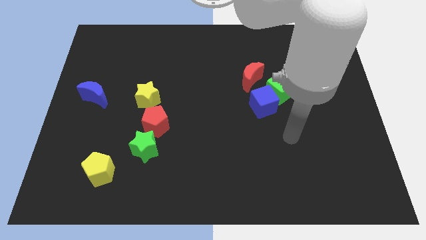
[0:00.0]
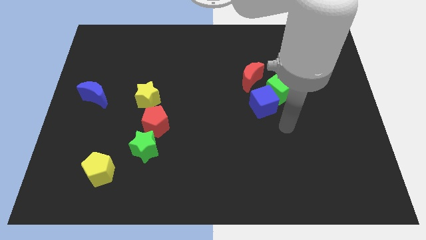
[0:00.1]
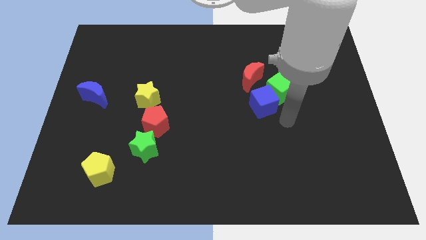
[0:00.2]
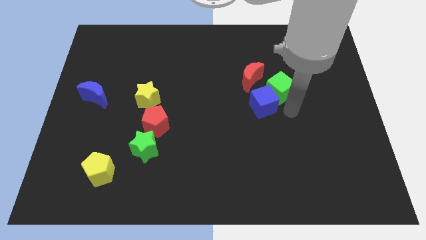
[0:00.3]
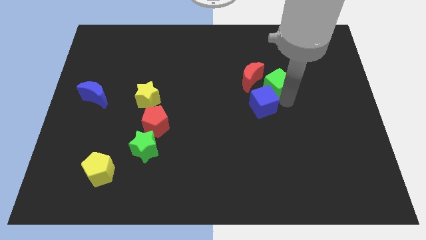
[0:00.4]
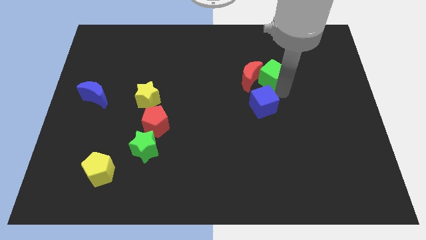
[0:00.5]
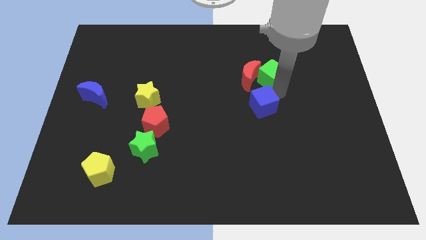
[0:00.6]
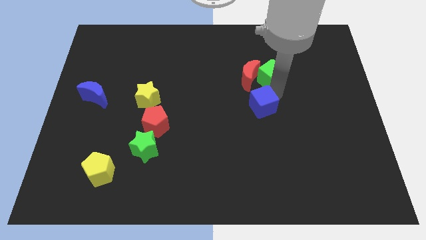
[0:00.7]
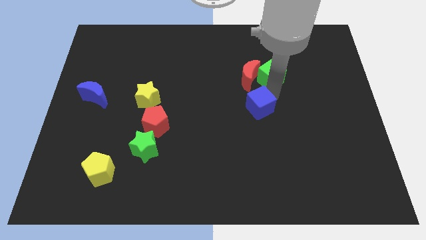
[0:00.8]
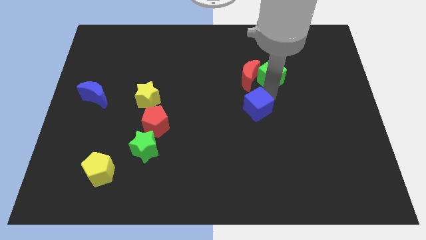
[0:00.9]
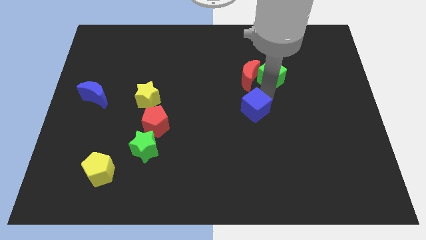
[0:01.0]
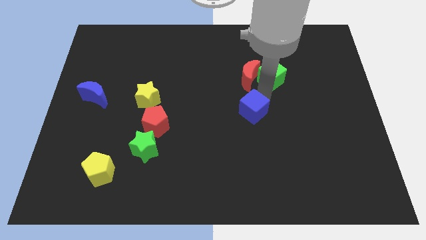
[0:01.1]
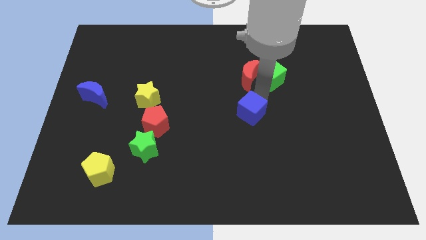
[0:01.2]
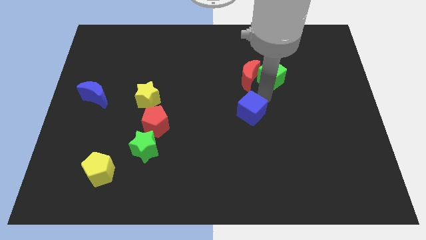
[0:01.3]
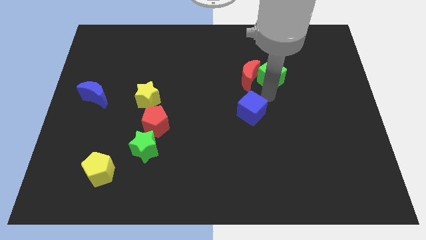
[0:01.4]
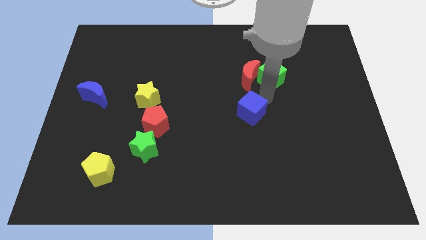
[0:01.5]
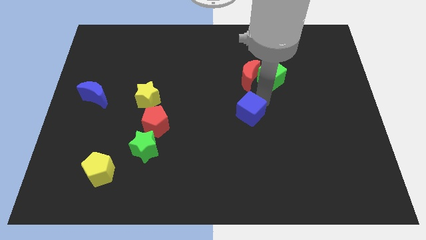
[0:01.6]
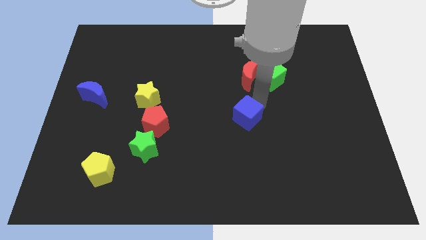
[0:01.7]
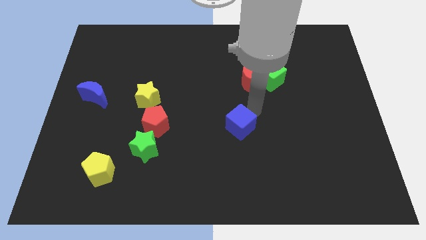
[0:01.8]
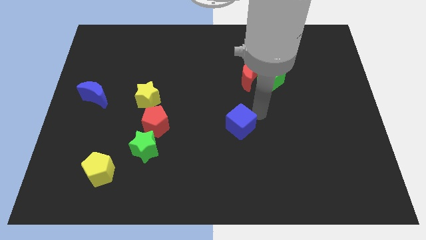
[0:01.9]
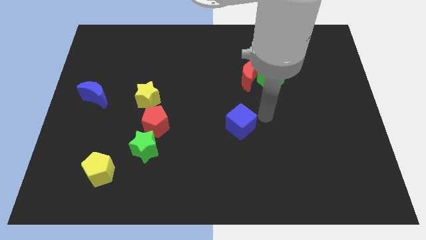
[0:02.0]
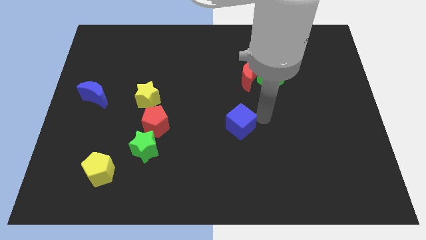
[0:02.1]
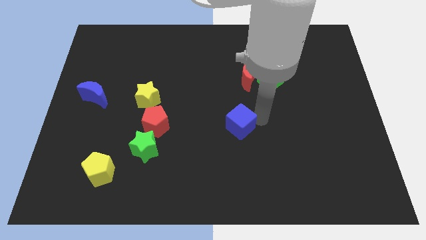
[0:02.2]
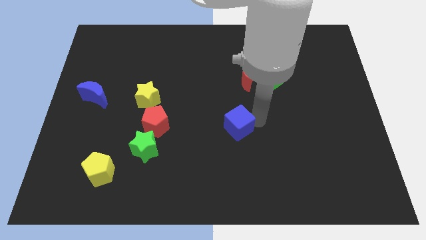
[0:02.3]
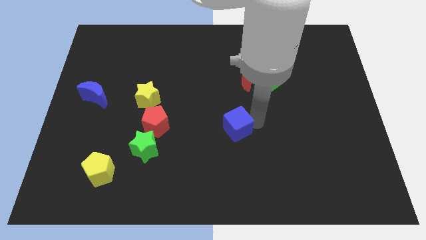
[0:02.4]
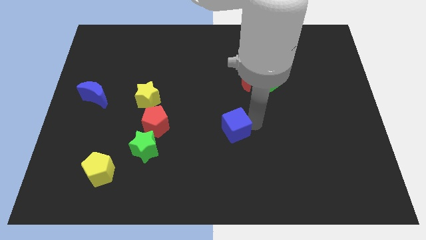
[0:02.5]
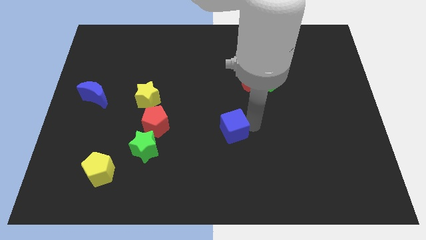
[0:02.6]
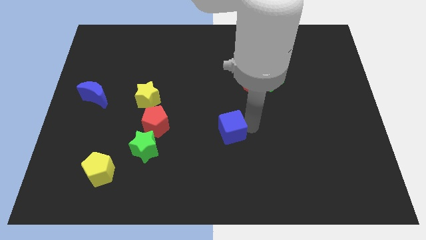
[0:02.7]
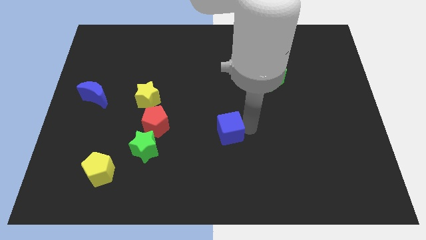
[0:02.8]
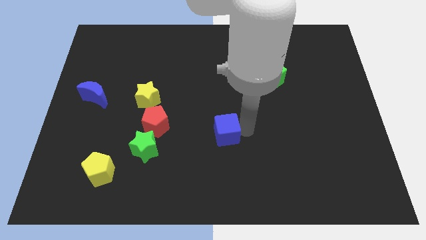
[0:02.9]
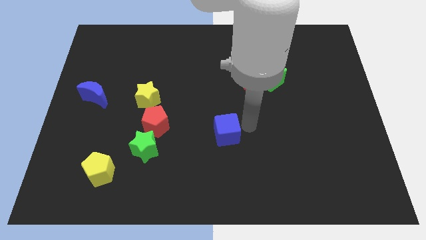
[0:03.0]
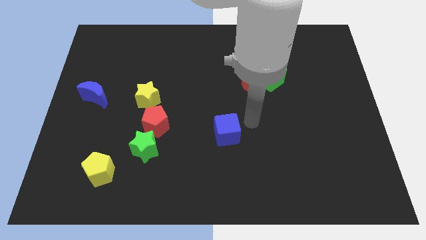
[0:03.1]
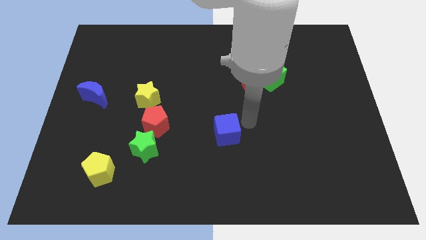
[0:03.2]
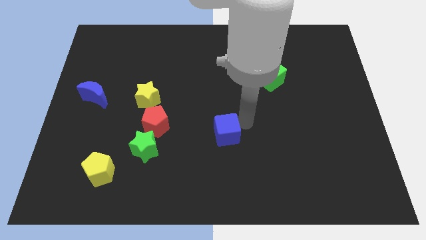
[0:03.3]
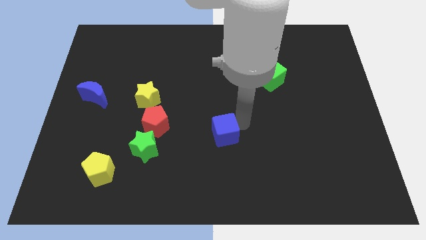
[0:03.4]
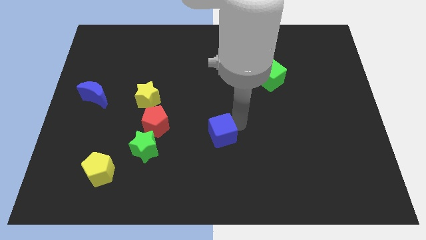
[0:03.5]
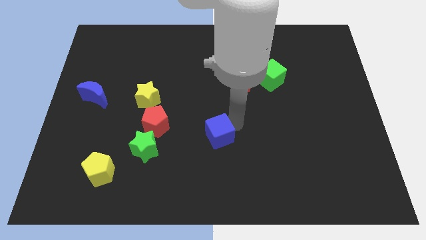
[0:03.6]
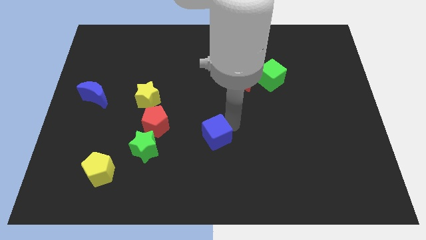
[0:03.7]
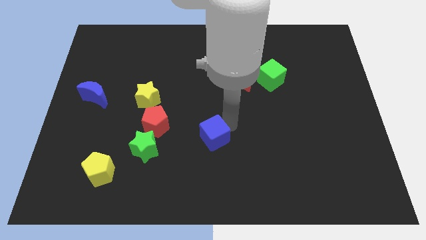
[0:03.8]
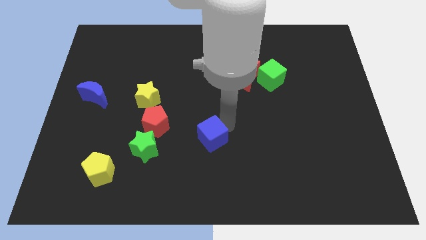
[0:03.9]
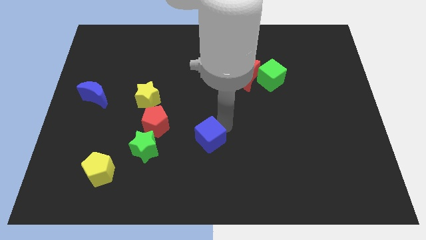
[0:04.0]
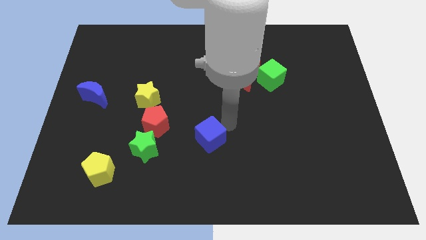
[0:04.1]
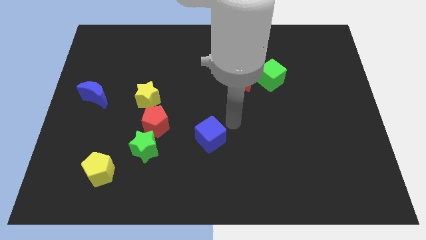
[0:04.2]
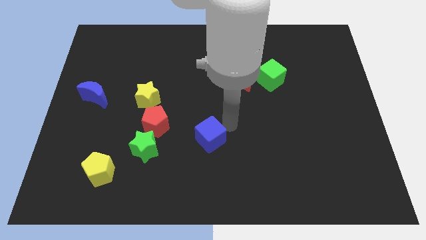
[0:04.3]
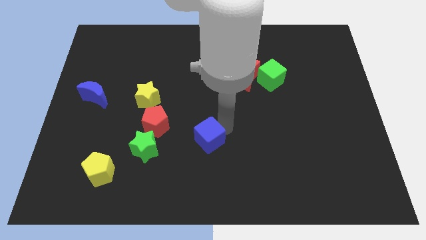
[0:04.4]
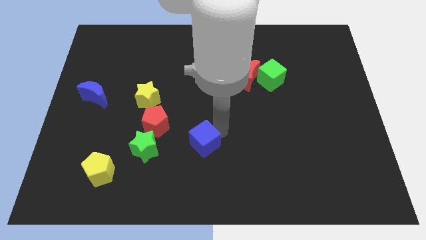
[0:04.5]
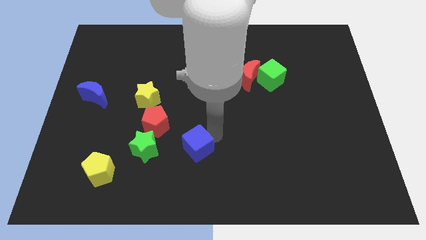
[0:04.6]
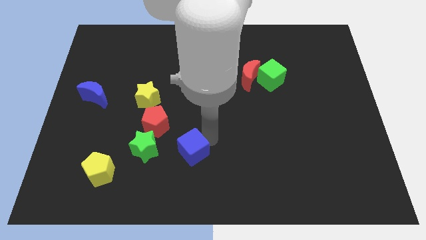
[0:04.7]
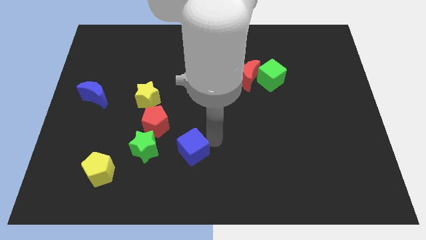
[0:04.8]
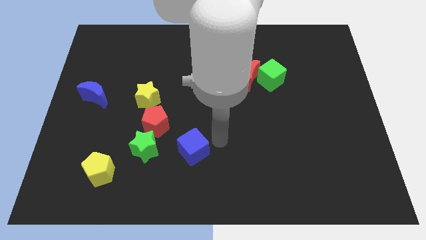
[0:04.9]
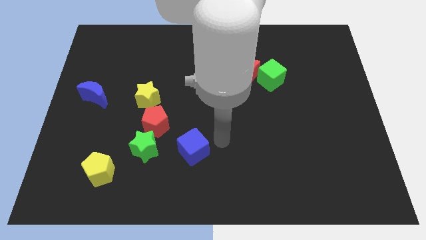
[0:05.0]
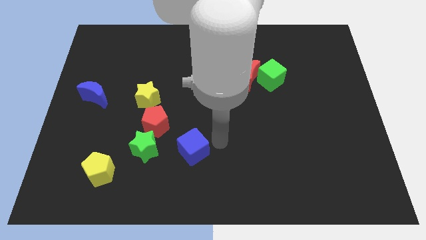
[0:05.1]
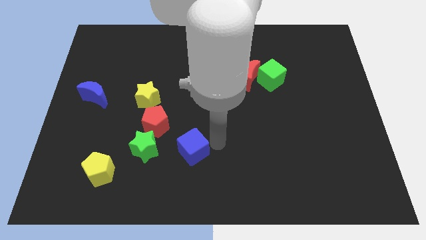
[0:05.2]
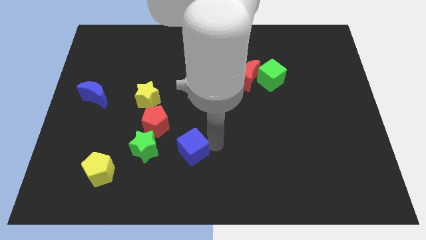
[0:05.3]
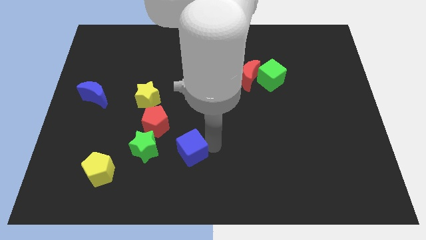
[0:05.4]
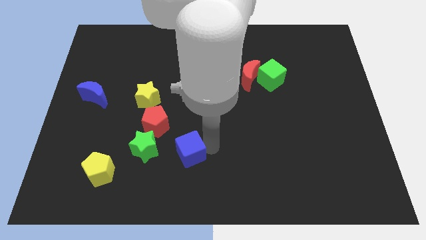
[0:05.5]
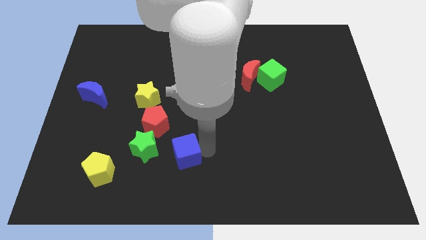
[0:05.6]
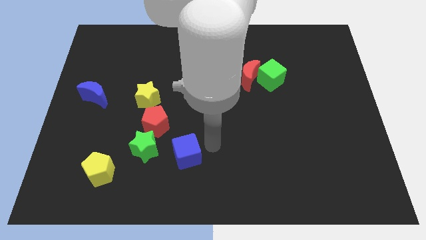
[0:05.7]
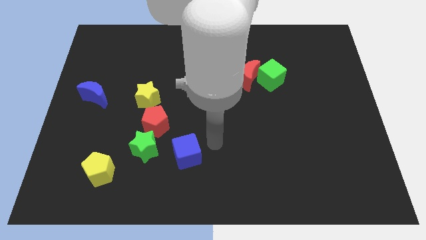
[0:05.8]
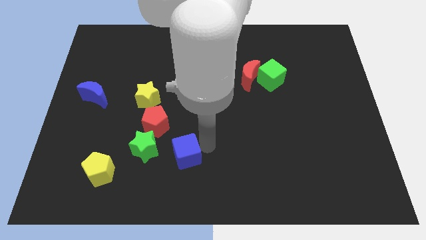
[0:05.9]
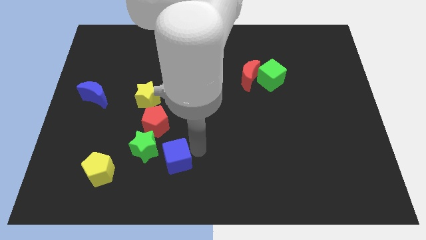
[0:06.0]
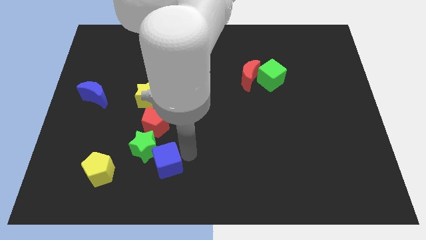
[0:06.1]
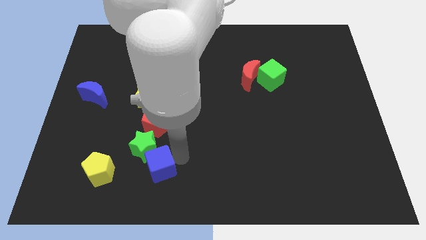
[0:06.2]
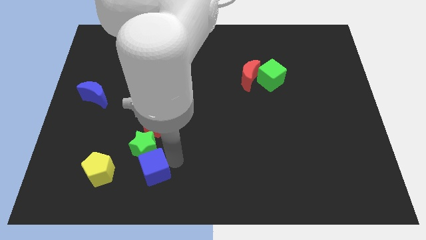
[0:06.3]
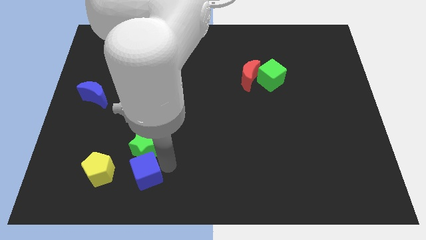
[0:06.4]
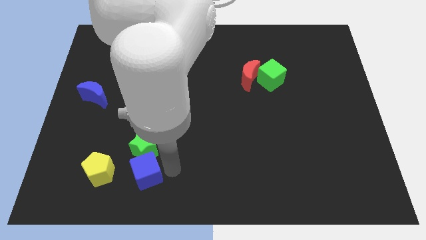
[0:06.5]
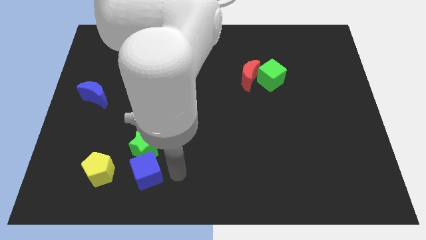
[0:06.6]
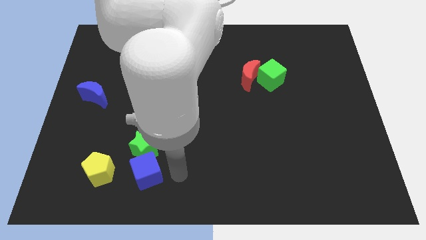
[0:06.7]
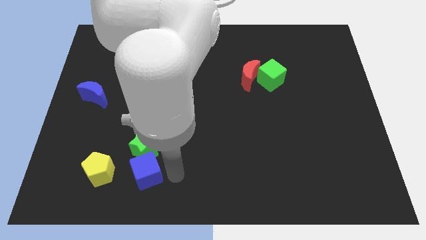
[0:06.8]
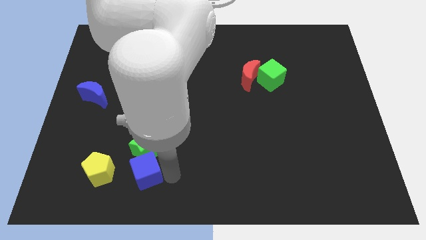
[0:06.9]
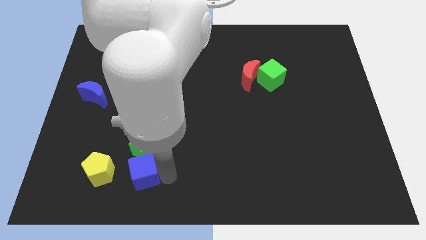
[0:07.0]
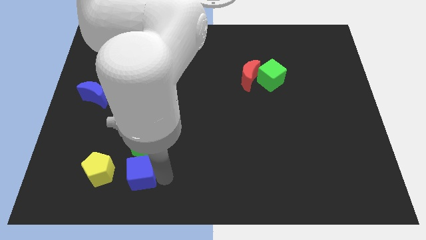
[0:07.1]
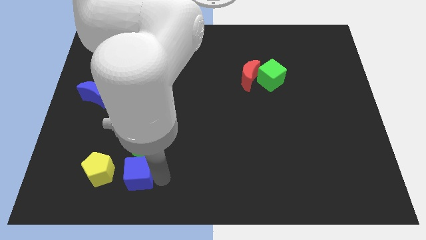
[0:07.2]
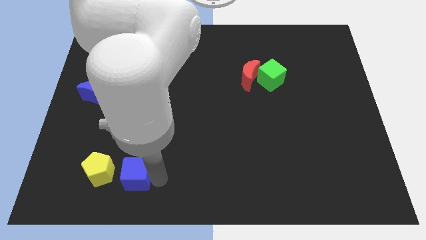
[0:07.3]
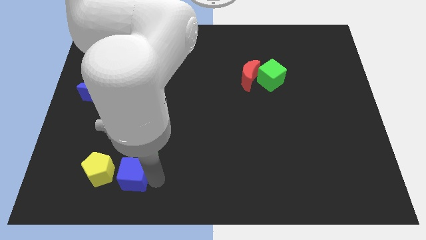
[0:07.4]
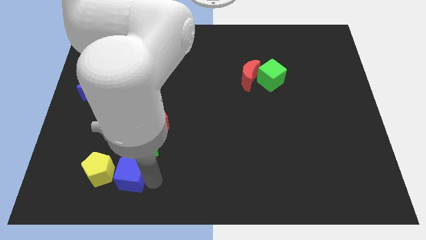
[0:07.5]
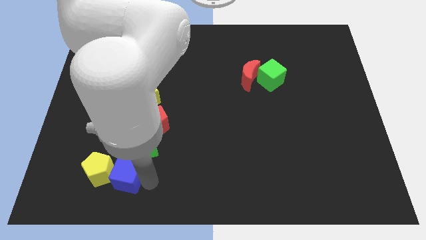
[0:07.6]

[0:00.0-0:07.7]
put the blue cube close to the yellow pentagon
